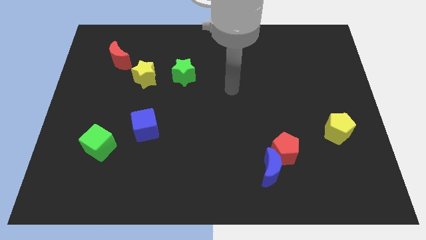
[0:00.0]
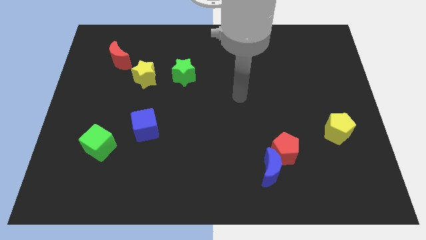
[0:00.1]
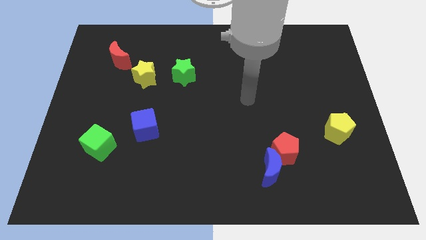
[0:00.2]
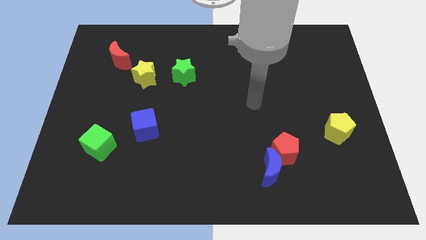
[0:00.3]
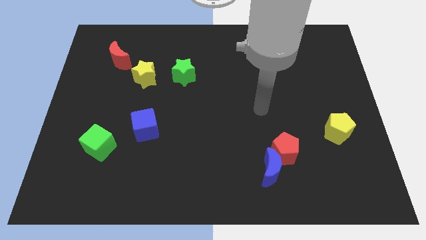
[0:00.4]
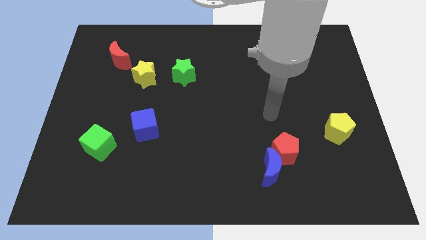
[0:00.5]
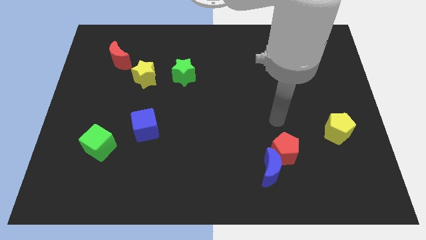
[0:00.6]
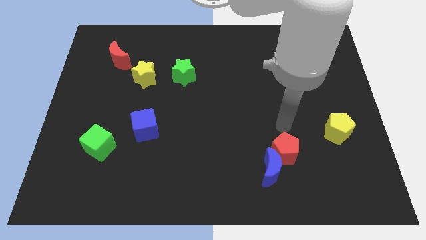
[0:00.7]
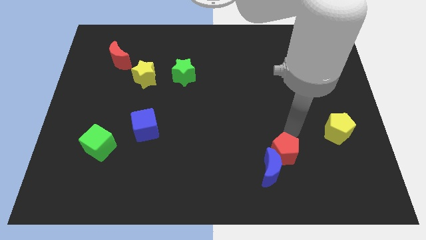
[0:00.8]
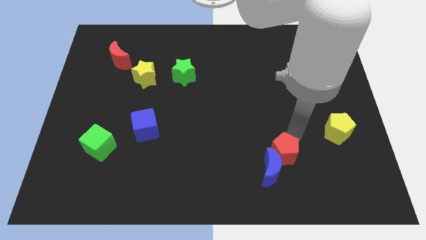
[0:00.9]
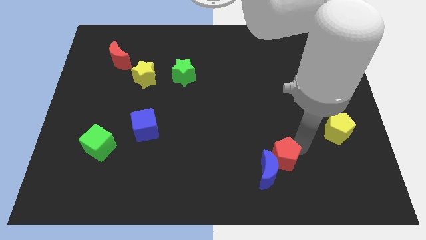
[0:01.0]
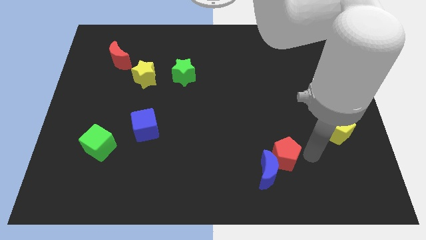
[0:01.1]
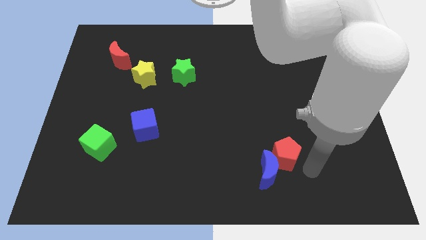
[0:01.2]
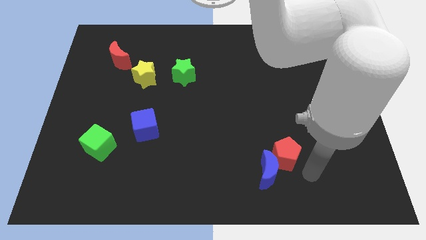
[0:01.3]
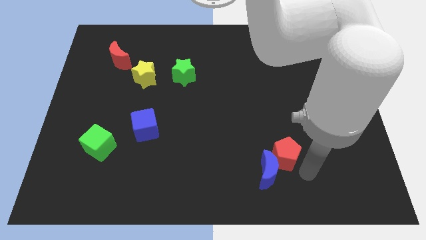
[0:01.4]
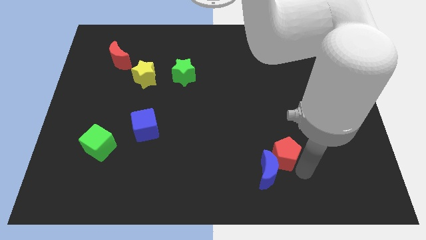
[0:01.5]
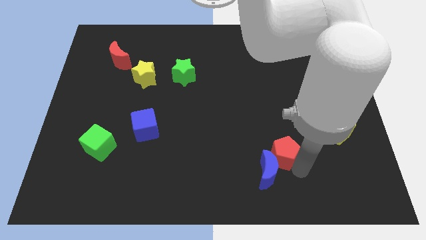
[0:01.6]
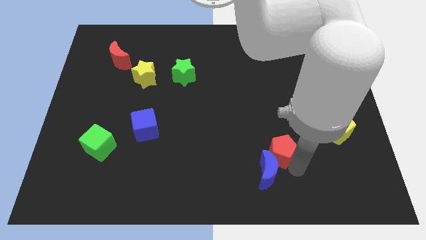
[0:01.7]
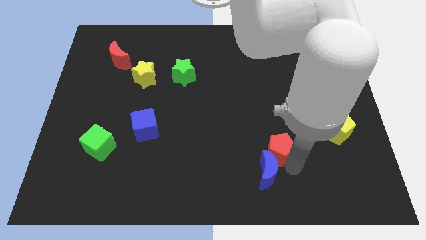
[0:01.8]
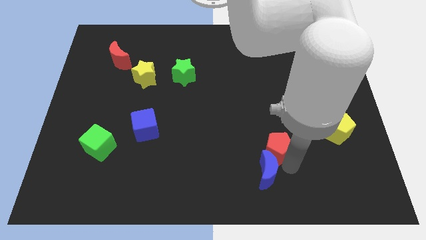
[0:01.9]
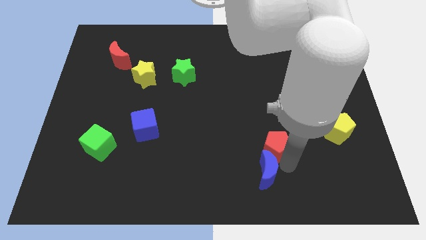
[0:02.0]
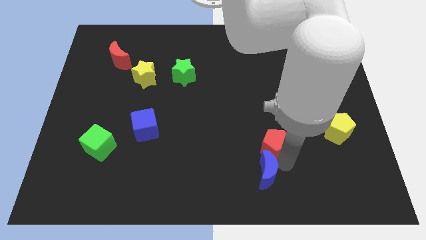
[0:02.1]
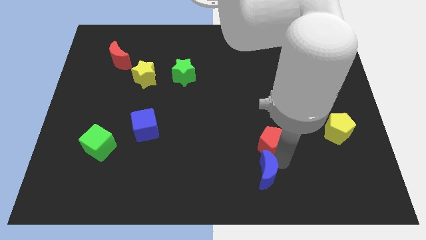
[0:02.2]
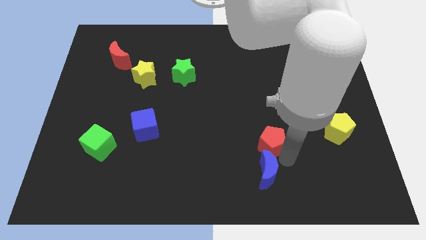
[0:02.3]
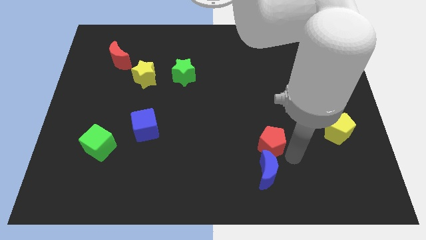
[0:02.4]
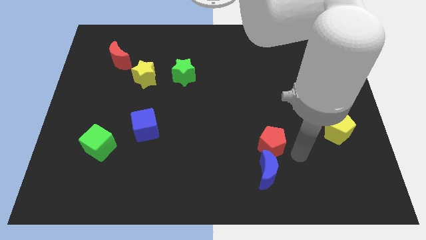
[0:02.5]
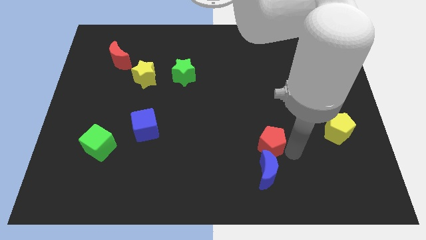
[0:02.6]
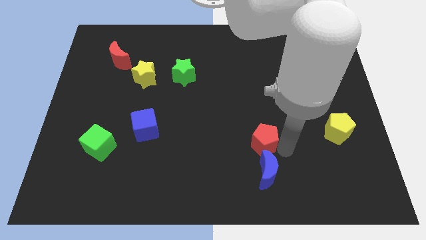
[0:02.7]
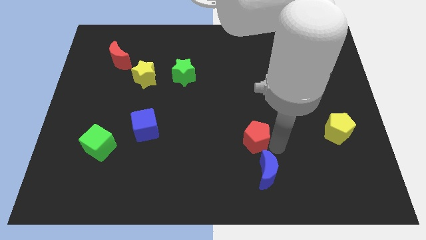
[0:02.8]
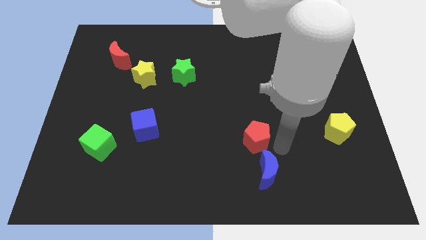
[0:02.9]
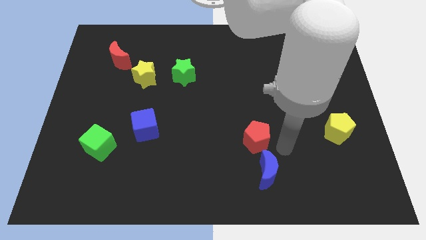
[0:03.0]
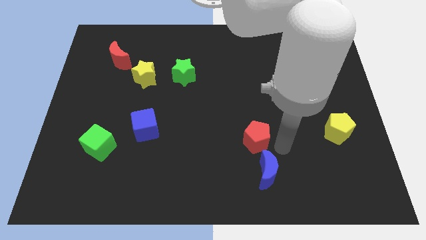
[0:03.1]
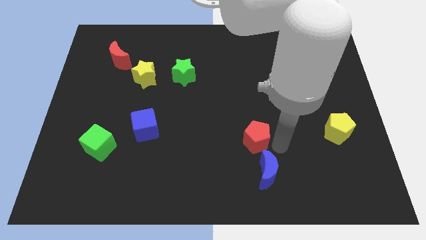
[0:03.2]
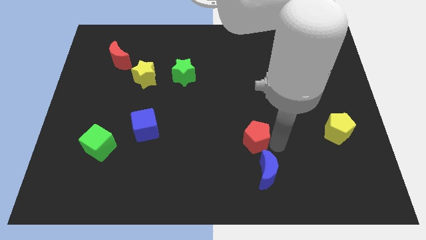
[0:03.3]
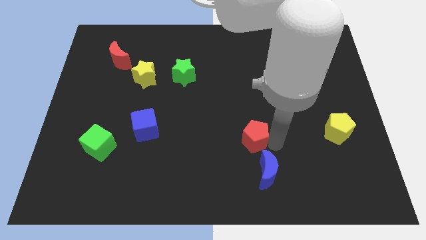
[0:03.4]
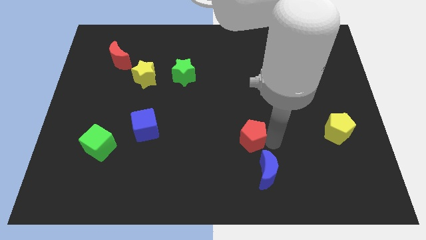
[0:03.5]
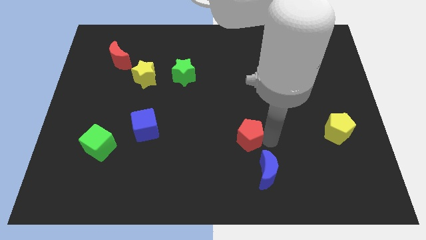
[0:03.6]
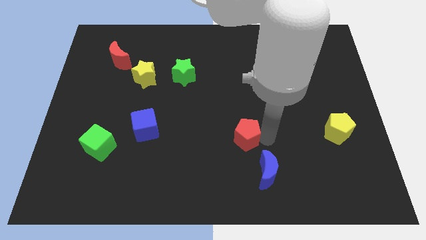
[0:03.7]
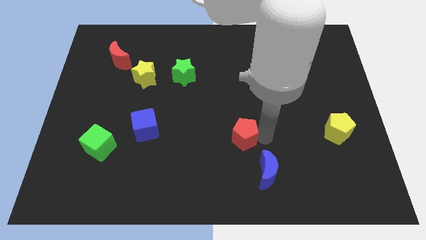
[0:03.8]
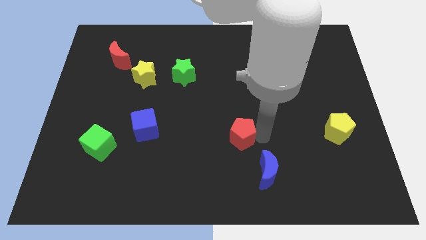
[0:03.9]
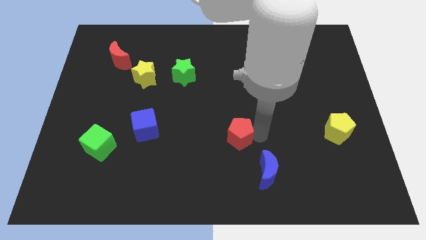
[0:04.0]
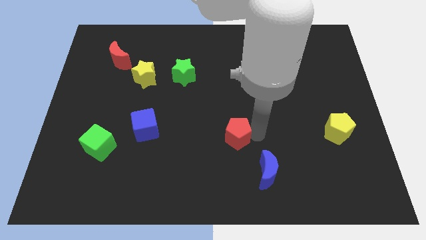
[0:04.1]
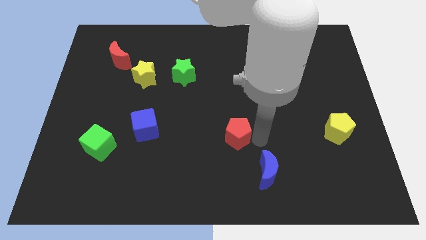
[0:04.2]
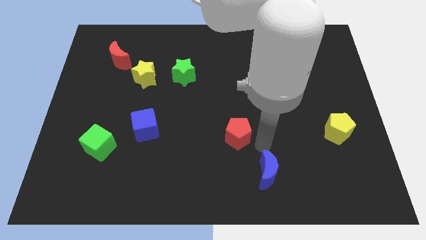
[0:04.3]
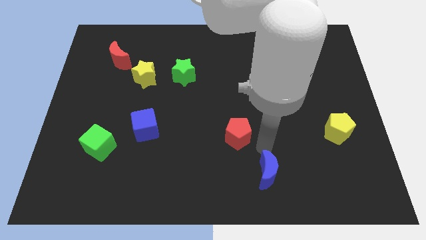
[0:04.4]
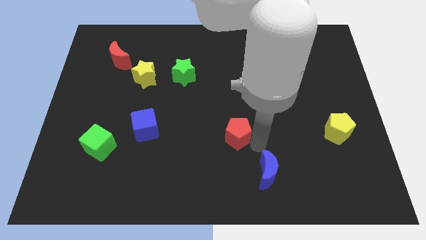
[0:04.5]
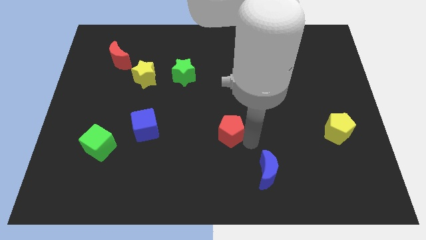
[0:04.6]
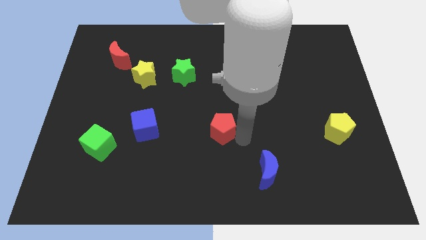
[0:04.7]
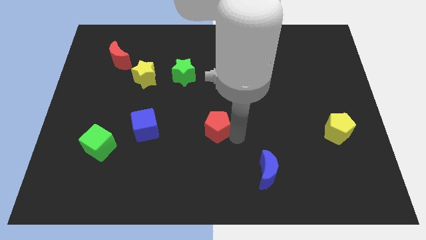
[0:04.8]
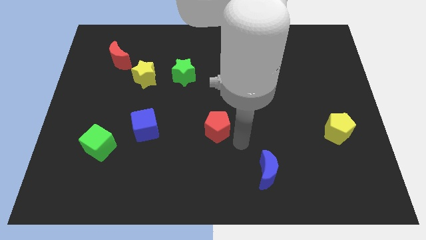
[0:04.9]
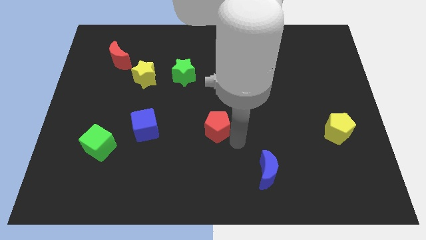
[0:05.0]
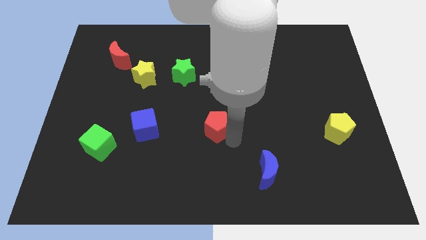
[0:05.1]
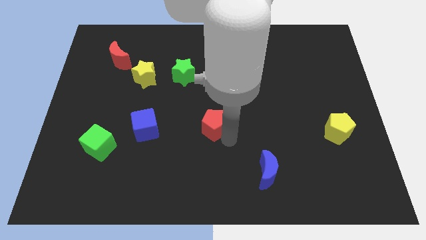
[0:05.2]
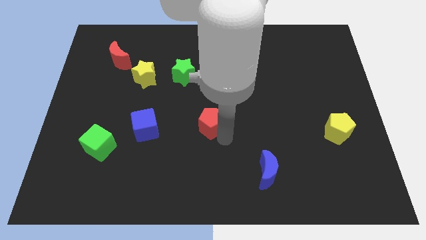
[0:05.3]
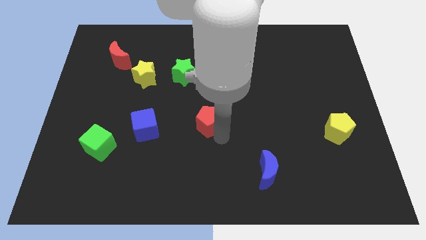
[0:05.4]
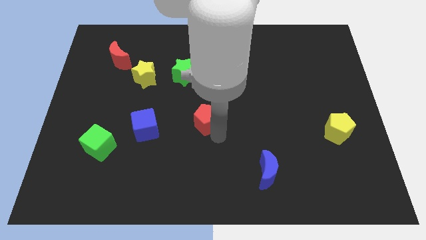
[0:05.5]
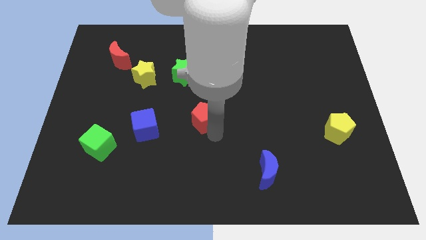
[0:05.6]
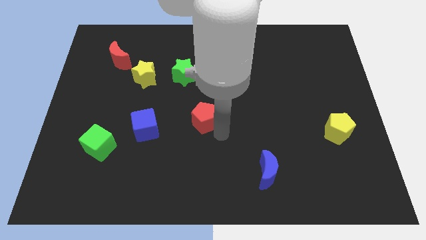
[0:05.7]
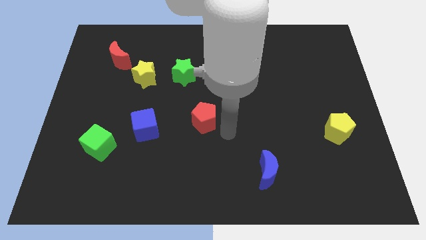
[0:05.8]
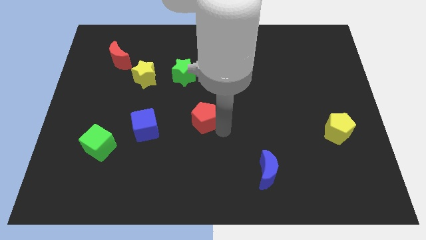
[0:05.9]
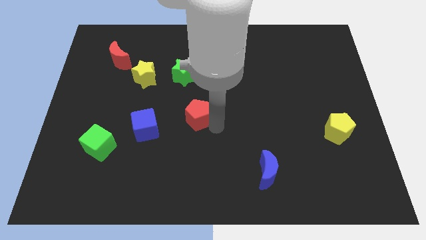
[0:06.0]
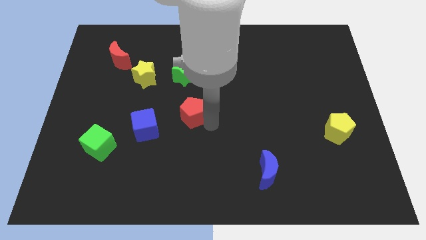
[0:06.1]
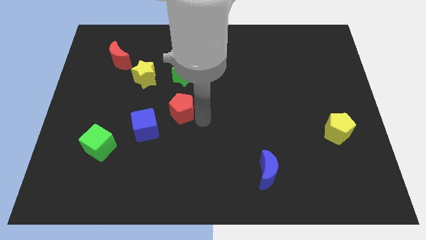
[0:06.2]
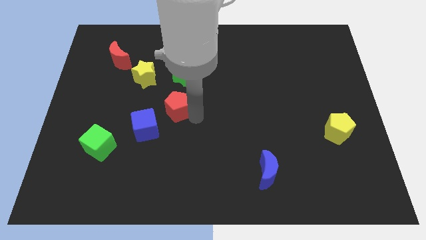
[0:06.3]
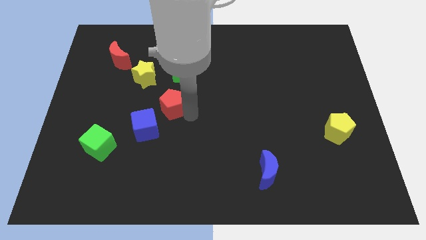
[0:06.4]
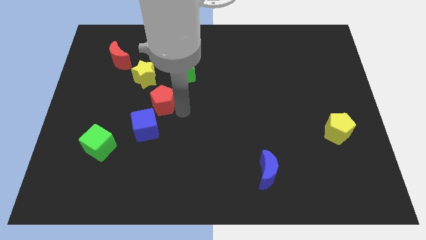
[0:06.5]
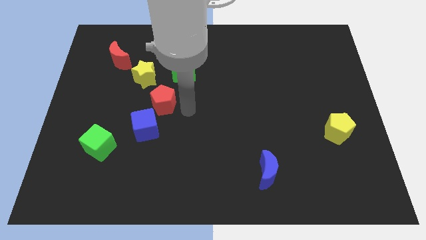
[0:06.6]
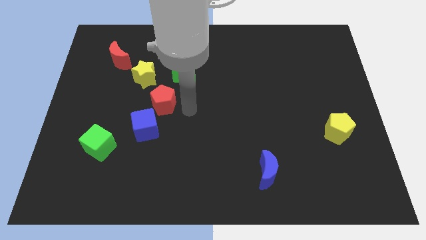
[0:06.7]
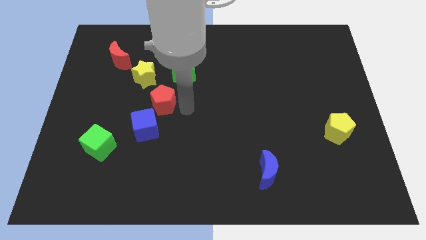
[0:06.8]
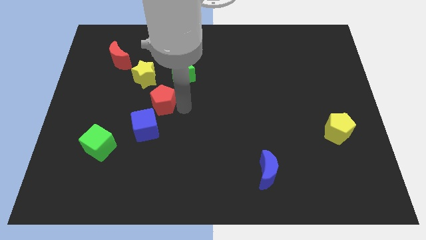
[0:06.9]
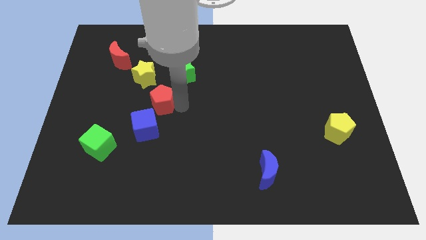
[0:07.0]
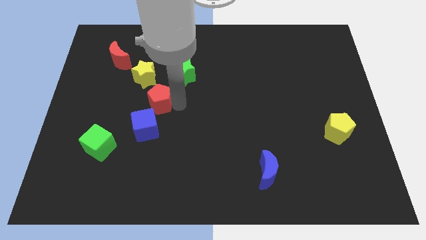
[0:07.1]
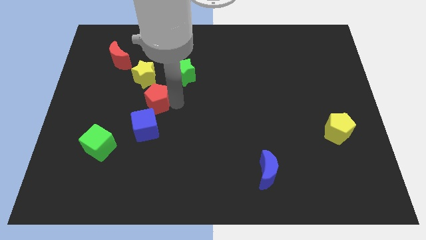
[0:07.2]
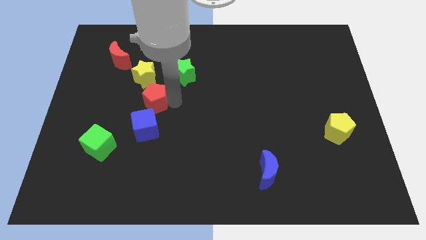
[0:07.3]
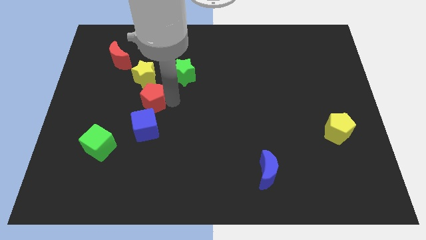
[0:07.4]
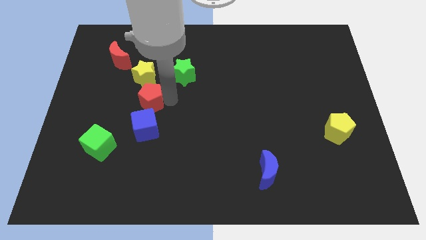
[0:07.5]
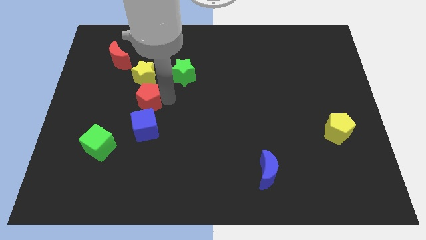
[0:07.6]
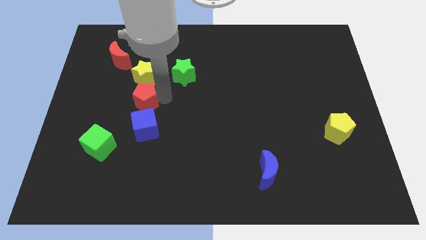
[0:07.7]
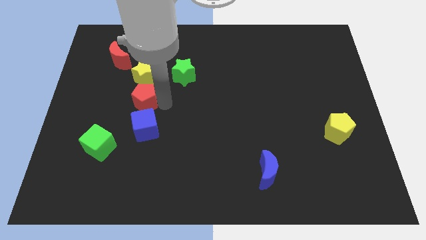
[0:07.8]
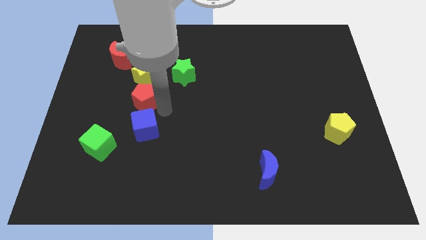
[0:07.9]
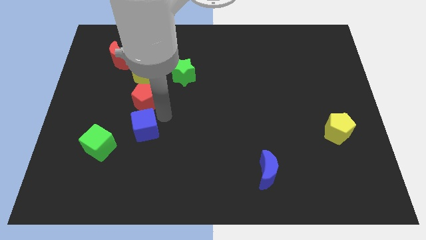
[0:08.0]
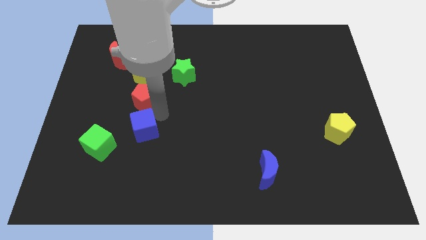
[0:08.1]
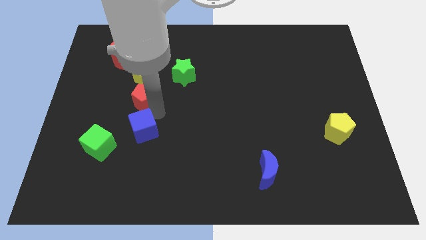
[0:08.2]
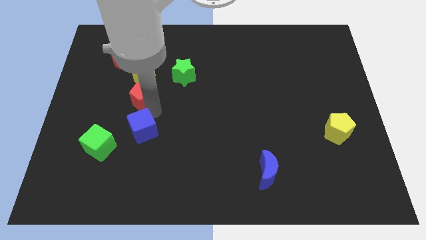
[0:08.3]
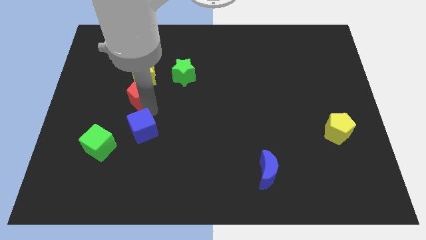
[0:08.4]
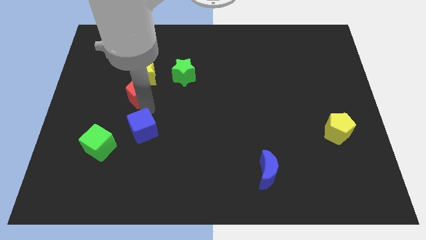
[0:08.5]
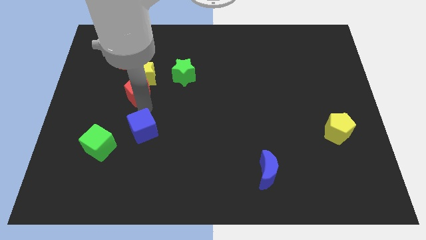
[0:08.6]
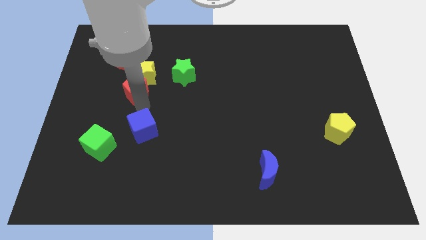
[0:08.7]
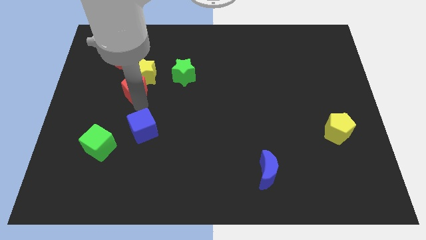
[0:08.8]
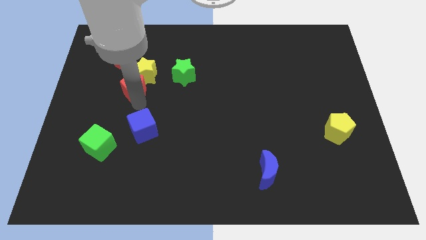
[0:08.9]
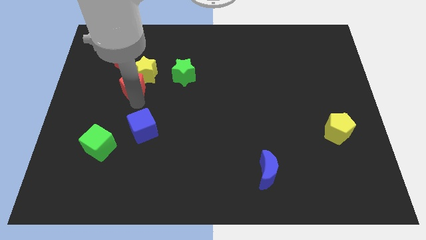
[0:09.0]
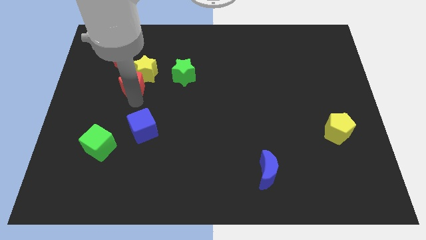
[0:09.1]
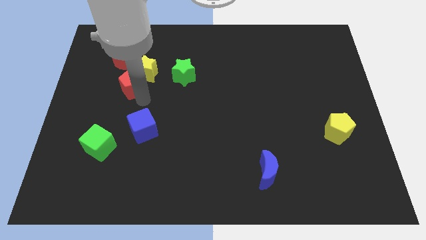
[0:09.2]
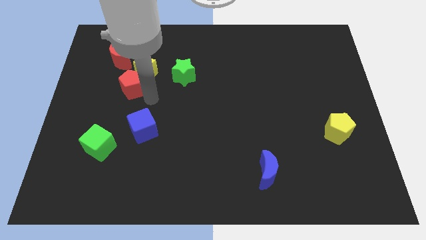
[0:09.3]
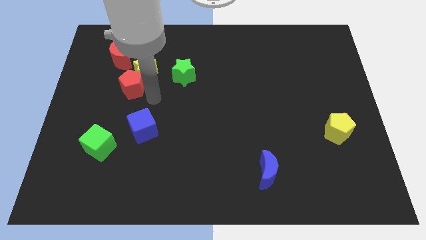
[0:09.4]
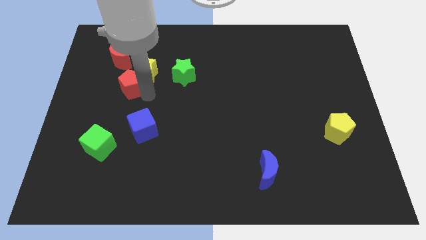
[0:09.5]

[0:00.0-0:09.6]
put the red pentagon to the left side of the yellow star
